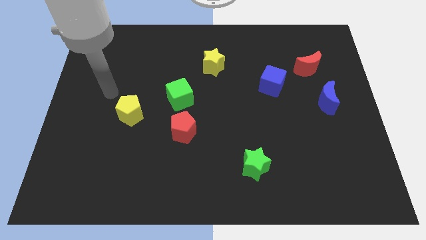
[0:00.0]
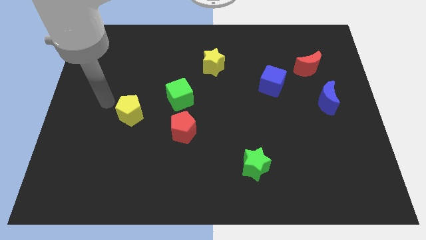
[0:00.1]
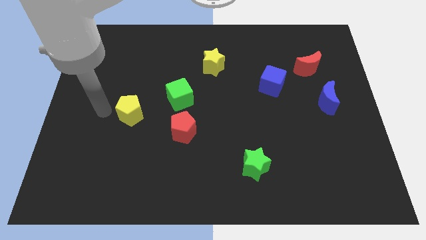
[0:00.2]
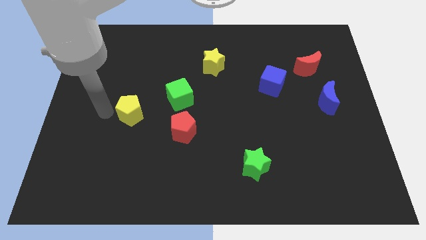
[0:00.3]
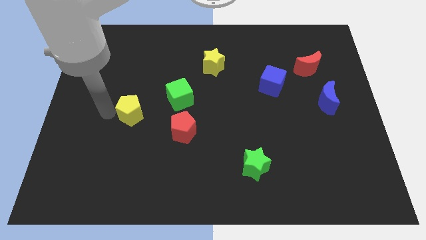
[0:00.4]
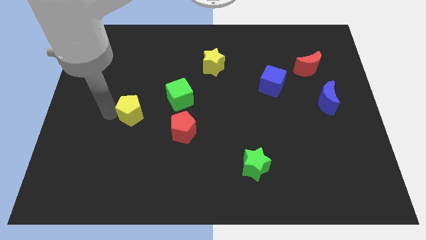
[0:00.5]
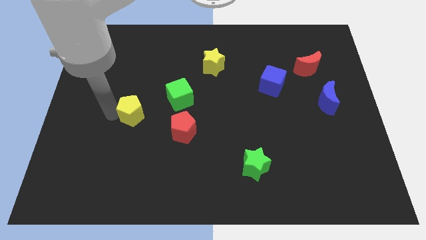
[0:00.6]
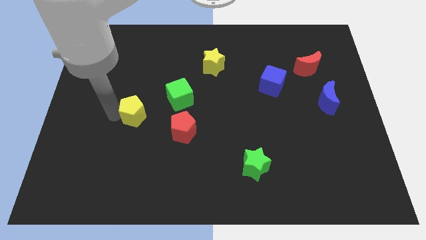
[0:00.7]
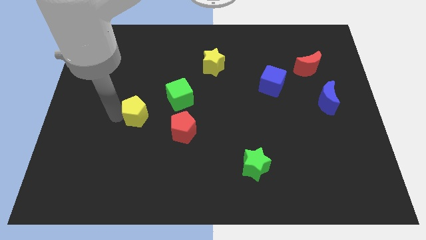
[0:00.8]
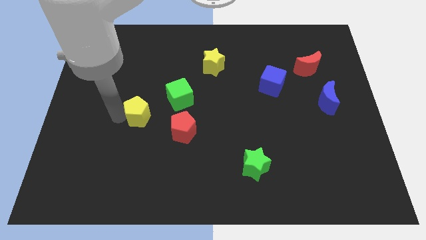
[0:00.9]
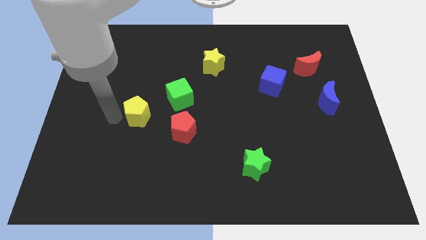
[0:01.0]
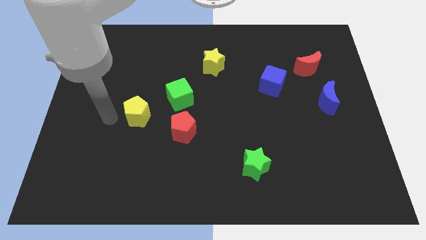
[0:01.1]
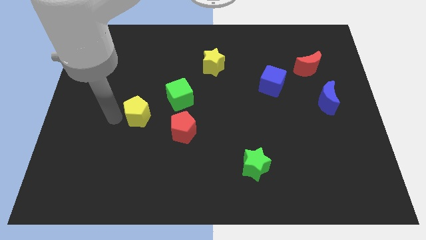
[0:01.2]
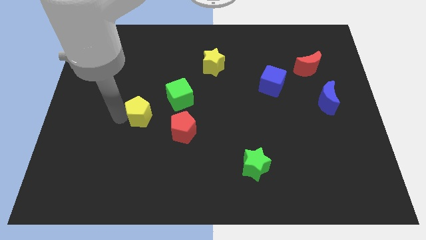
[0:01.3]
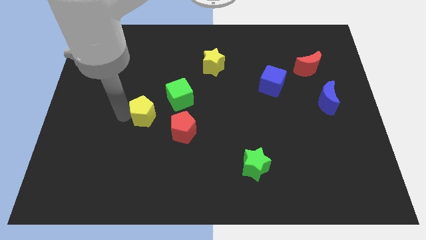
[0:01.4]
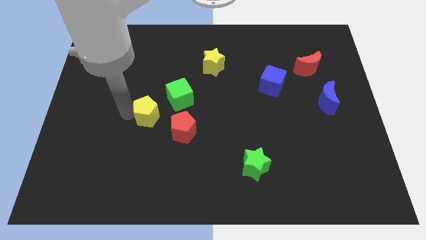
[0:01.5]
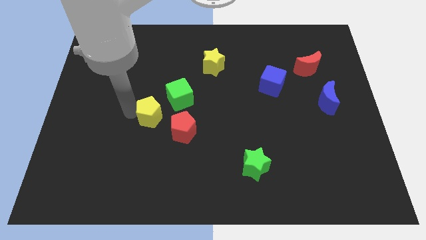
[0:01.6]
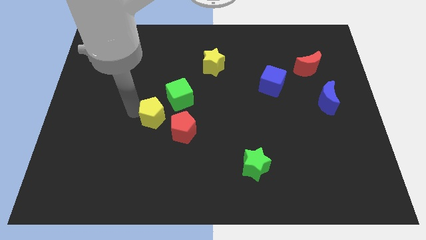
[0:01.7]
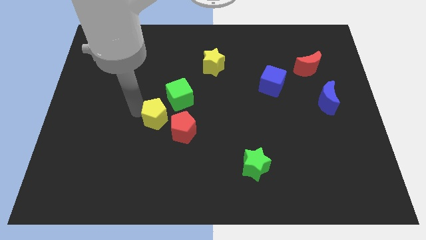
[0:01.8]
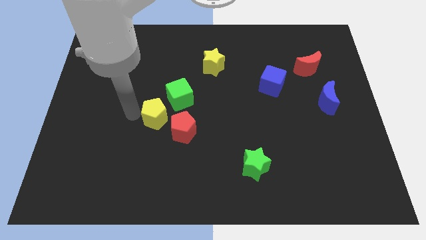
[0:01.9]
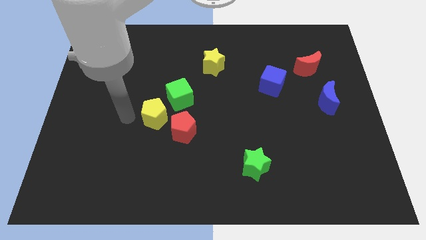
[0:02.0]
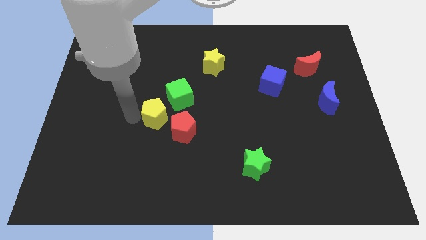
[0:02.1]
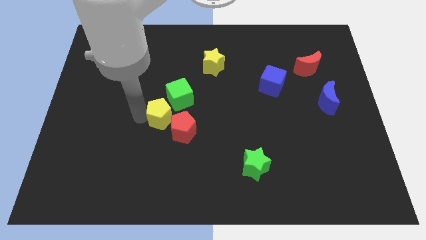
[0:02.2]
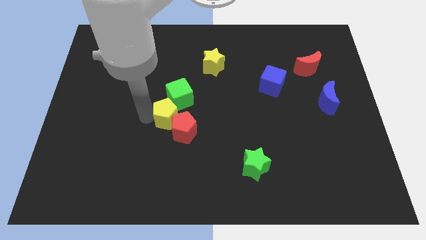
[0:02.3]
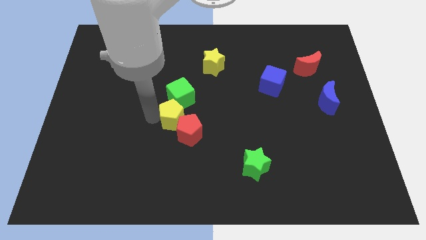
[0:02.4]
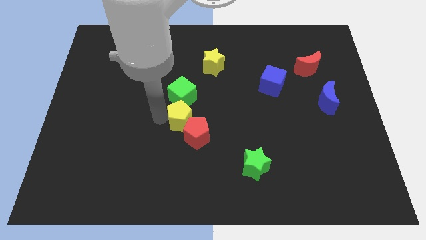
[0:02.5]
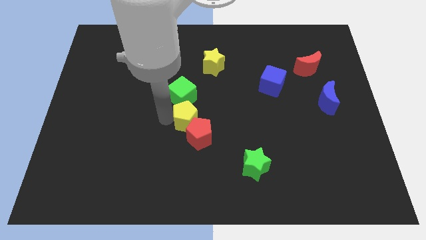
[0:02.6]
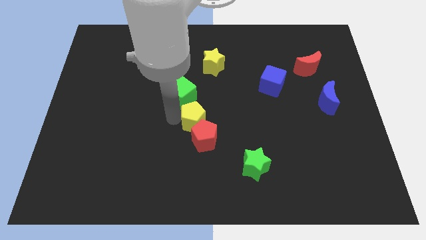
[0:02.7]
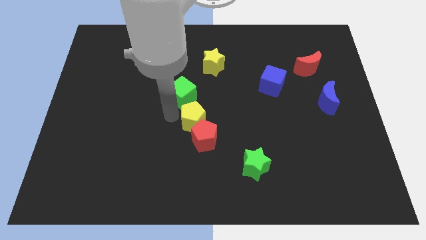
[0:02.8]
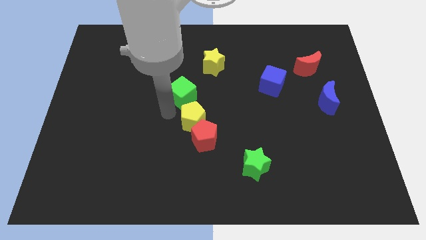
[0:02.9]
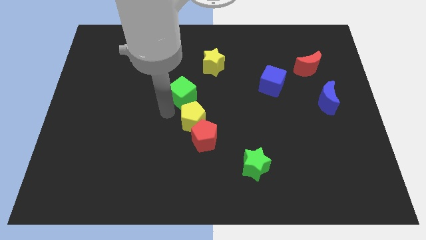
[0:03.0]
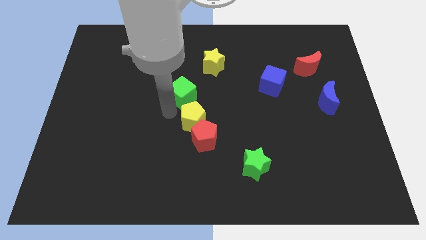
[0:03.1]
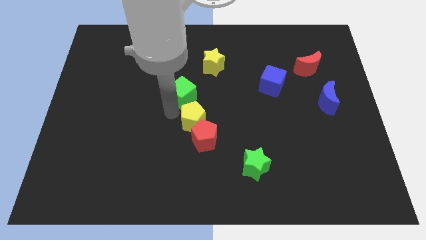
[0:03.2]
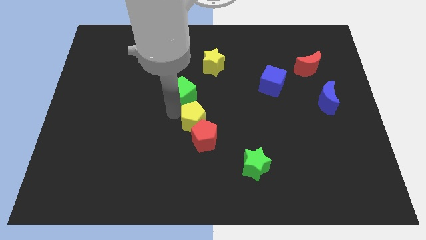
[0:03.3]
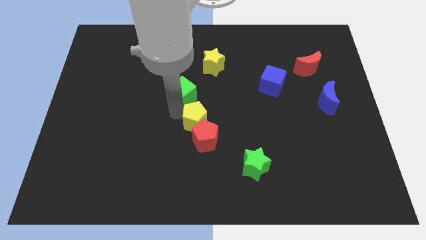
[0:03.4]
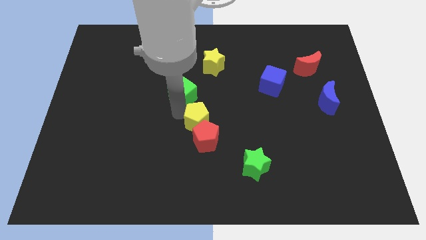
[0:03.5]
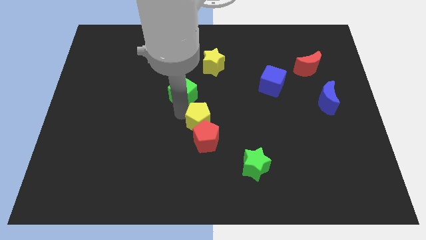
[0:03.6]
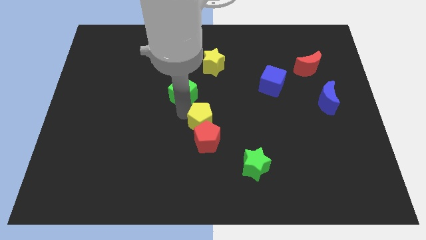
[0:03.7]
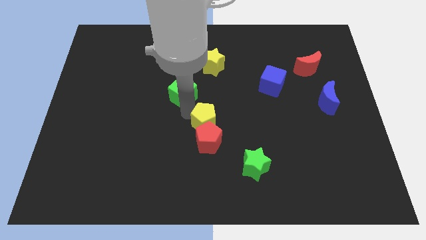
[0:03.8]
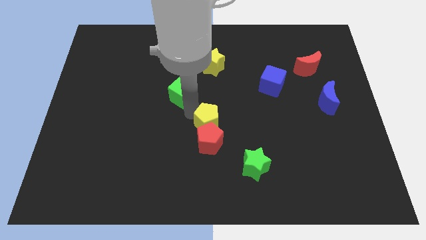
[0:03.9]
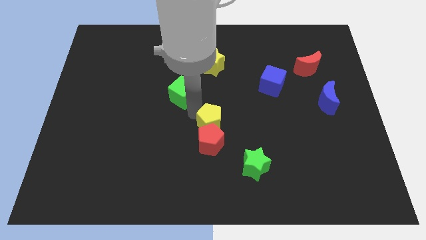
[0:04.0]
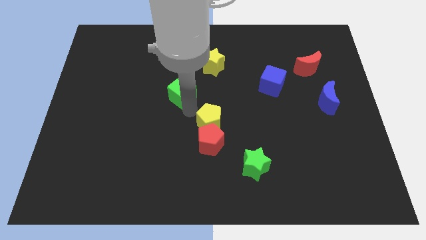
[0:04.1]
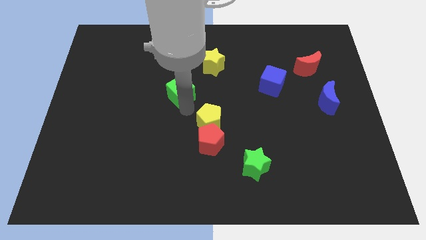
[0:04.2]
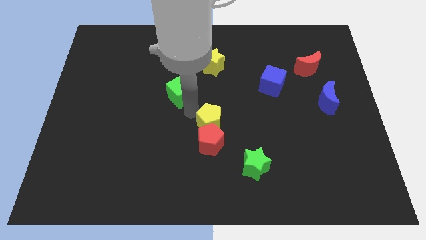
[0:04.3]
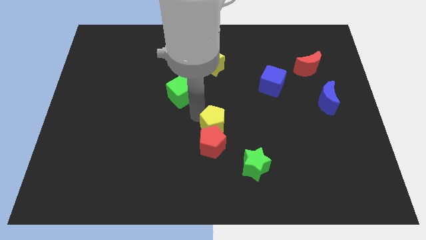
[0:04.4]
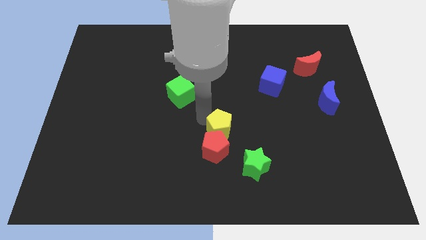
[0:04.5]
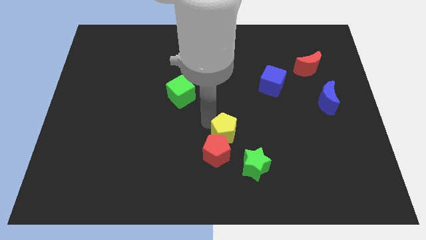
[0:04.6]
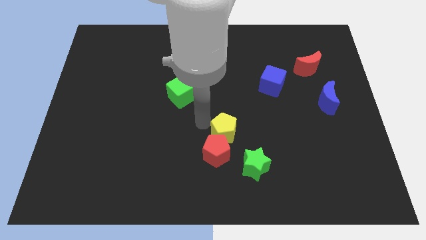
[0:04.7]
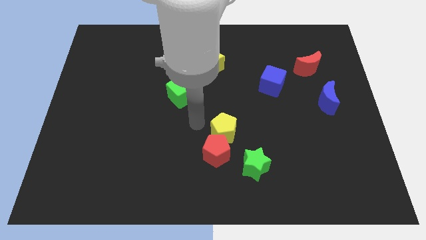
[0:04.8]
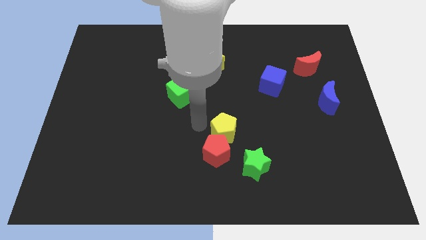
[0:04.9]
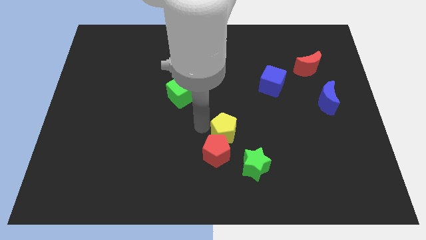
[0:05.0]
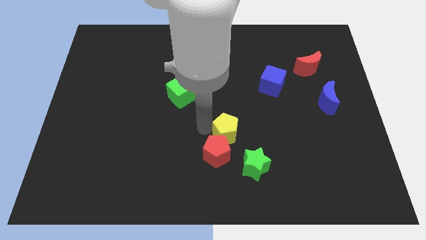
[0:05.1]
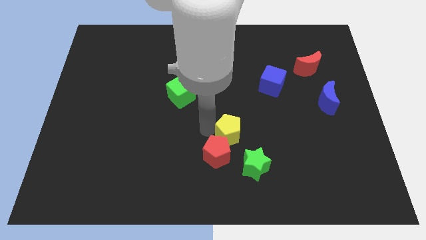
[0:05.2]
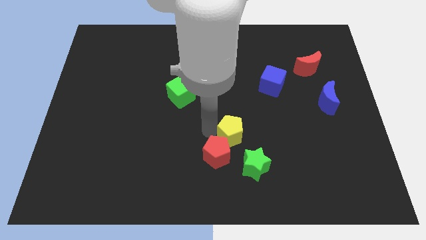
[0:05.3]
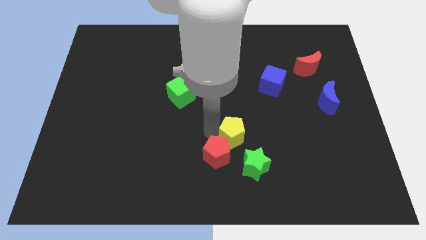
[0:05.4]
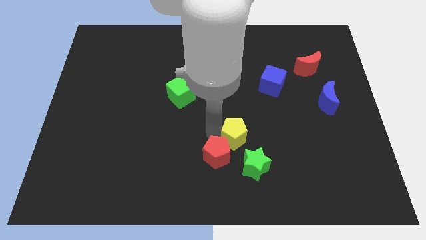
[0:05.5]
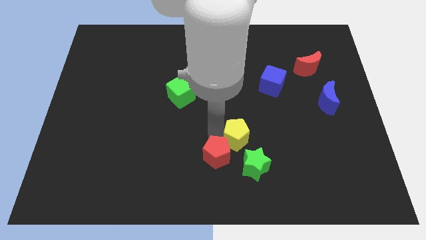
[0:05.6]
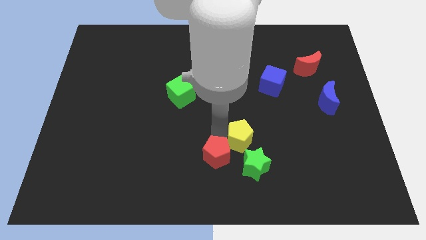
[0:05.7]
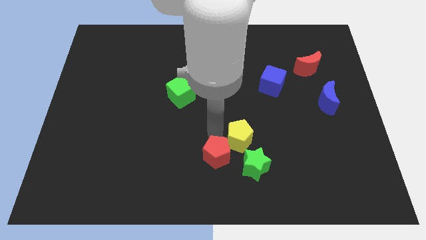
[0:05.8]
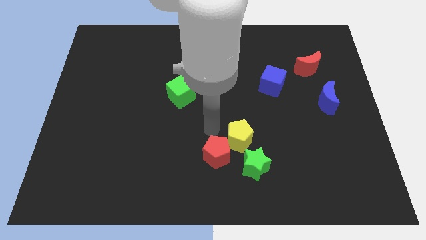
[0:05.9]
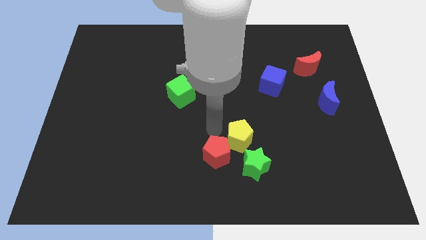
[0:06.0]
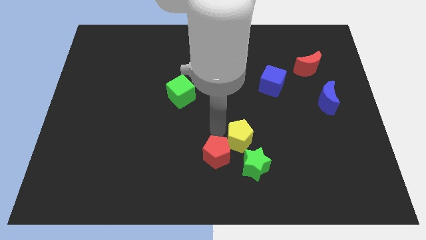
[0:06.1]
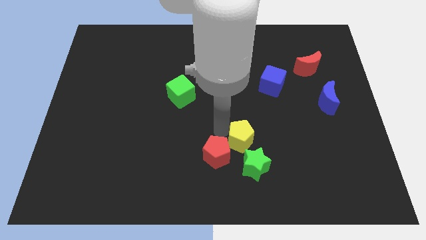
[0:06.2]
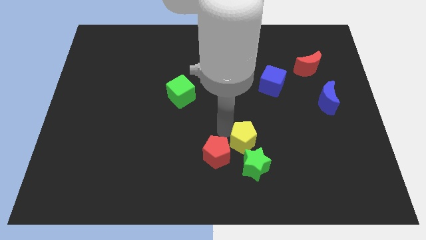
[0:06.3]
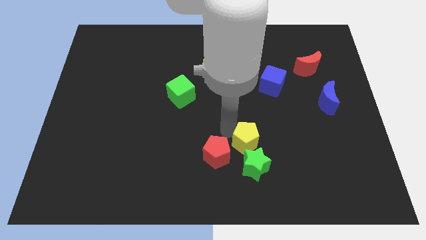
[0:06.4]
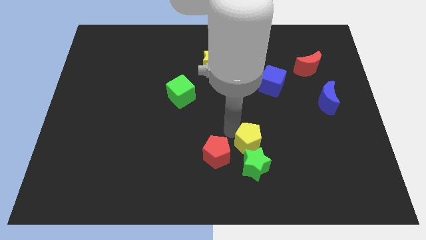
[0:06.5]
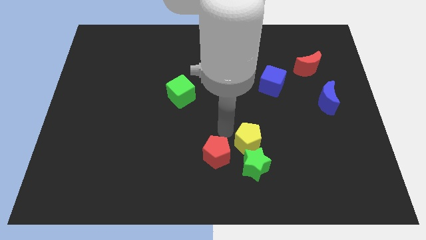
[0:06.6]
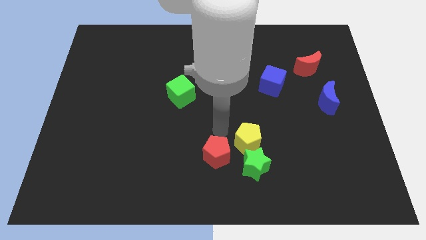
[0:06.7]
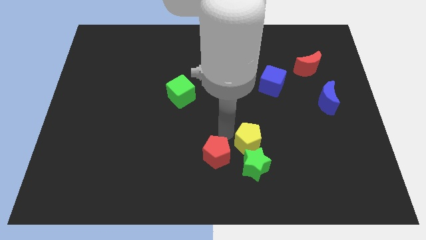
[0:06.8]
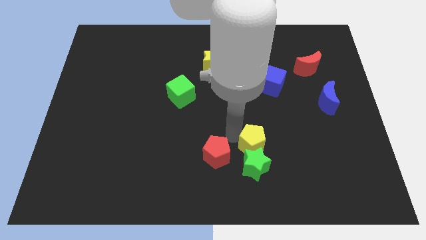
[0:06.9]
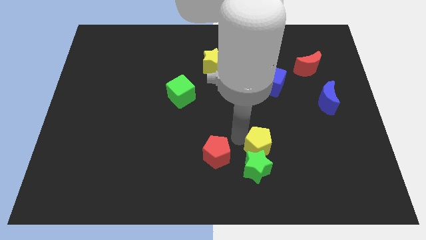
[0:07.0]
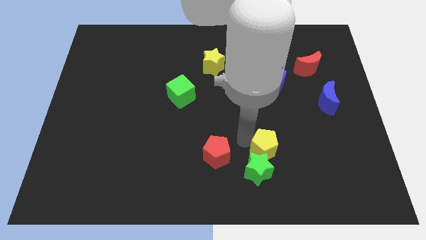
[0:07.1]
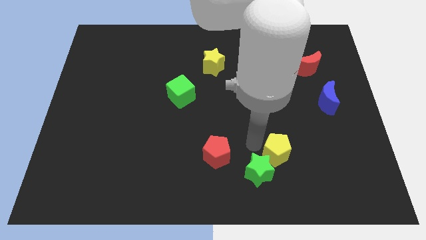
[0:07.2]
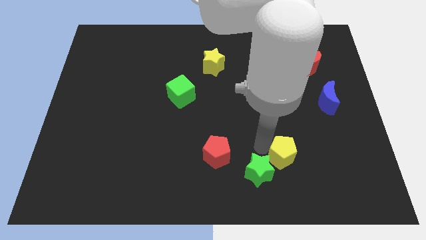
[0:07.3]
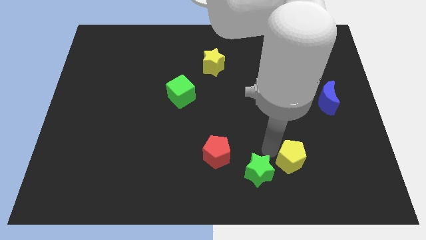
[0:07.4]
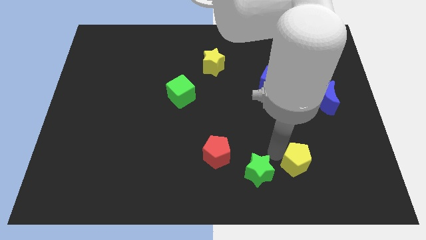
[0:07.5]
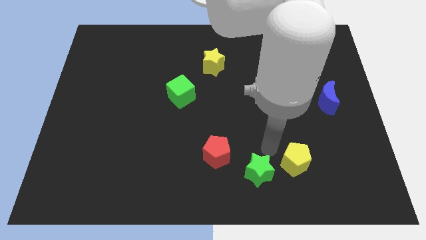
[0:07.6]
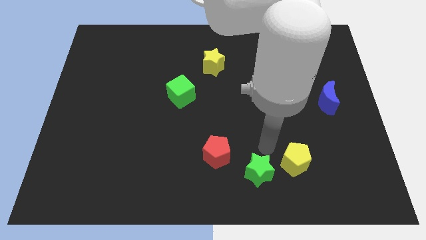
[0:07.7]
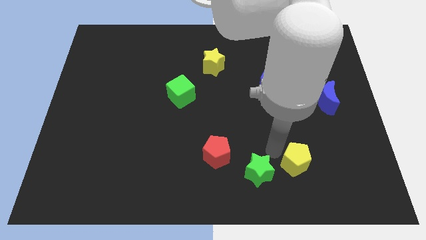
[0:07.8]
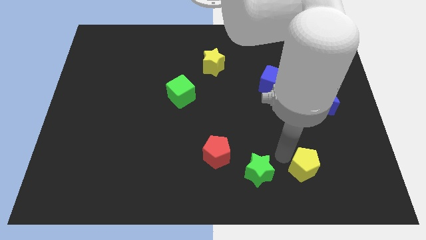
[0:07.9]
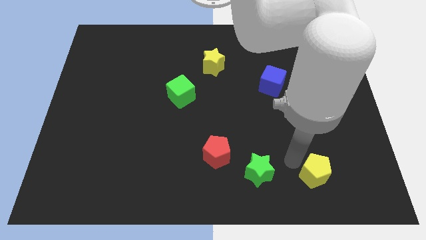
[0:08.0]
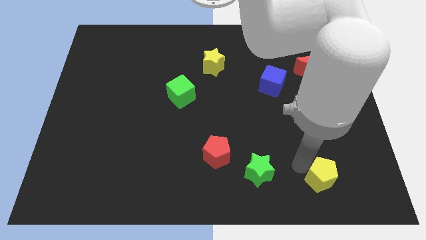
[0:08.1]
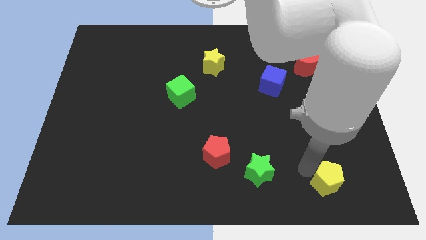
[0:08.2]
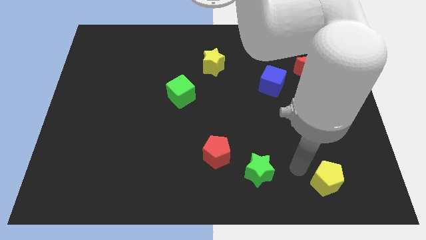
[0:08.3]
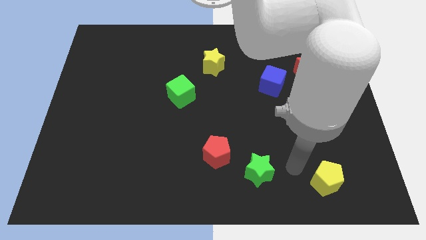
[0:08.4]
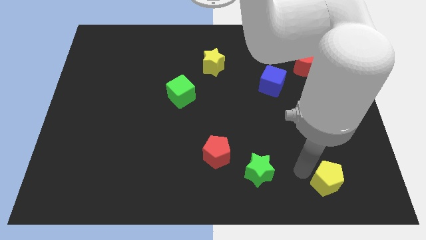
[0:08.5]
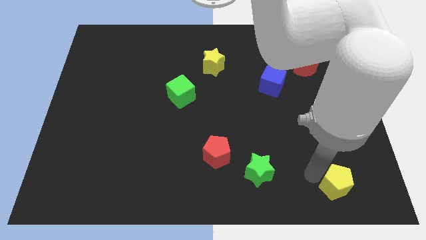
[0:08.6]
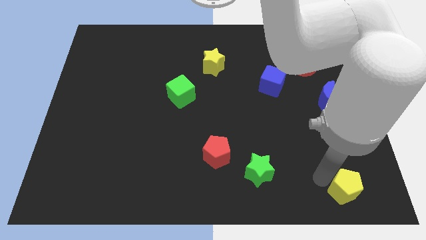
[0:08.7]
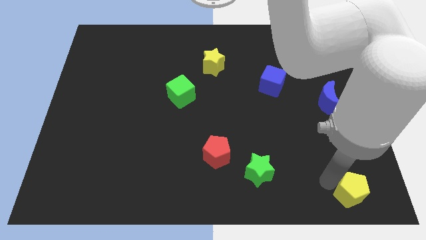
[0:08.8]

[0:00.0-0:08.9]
put the yellow pentagon to the bottom right of the board
